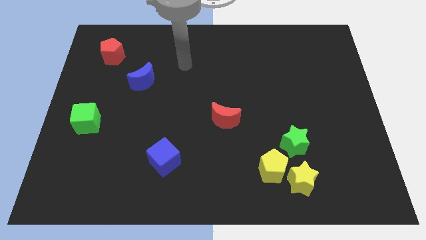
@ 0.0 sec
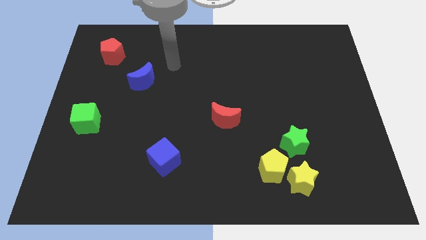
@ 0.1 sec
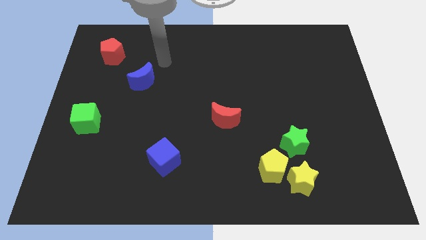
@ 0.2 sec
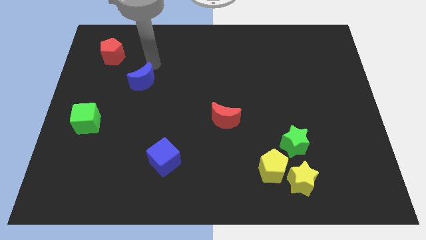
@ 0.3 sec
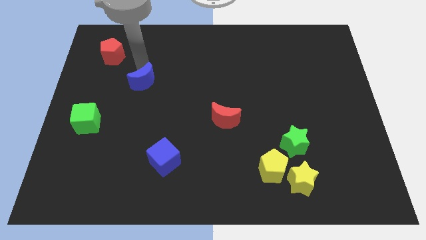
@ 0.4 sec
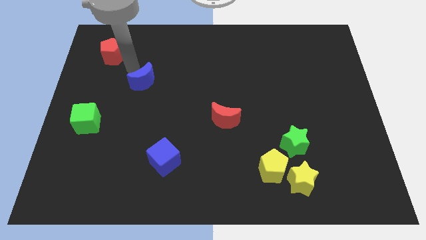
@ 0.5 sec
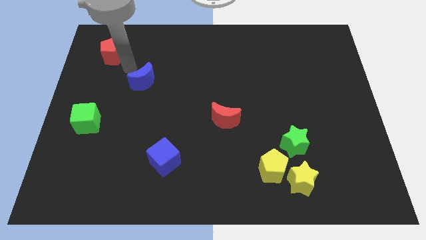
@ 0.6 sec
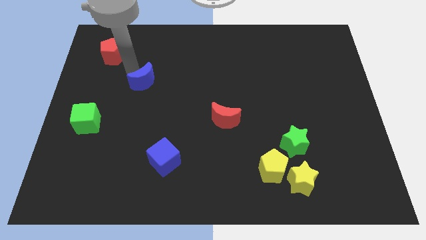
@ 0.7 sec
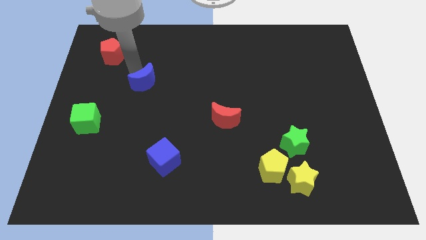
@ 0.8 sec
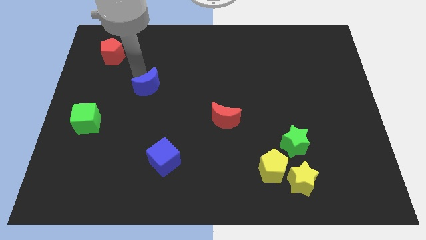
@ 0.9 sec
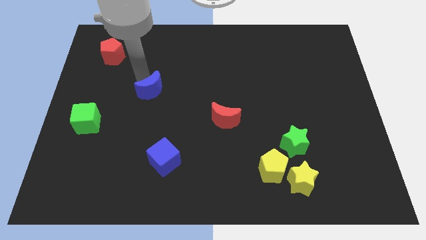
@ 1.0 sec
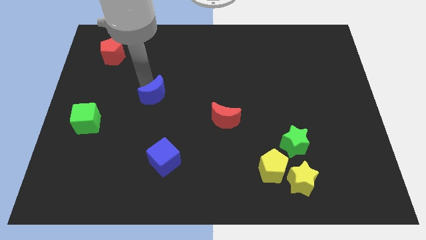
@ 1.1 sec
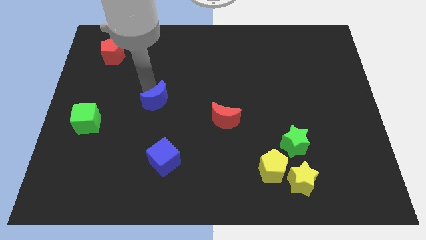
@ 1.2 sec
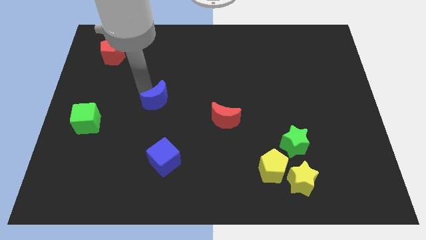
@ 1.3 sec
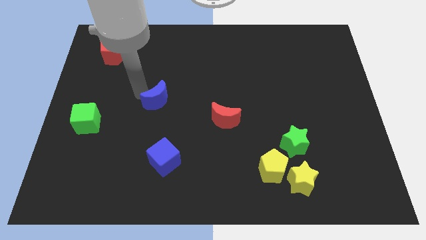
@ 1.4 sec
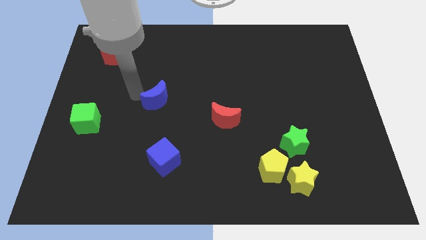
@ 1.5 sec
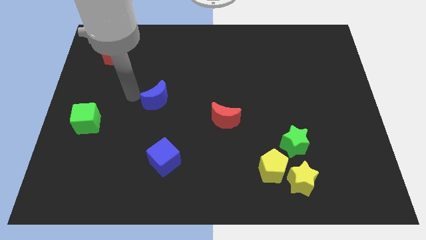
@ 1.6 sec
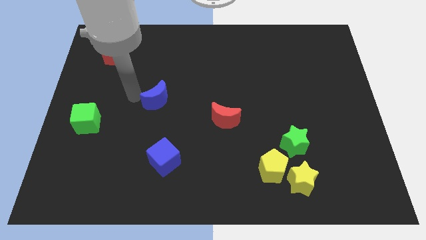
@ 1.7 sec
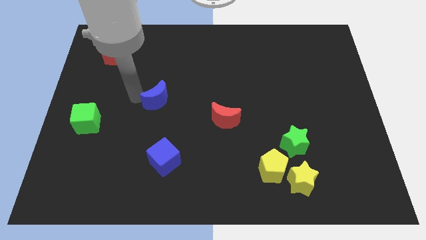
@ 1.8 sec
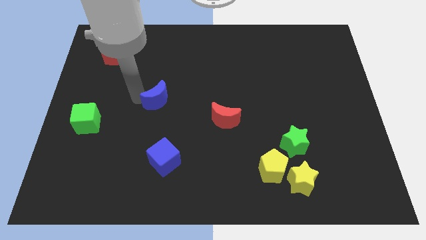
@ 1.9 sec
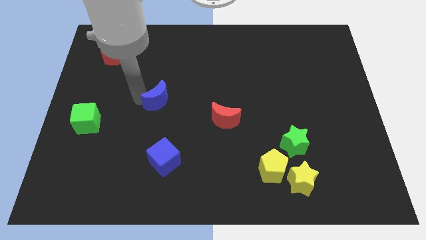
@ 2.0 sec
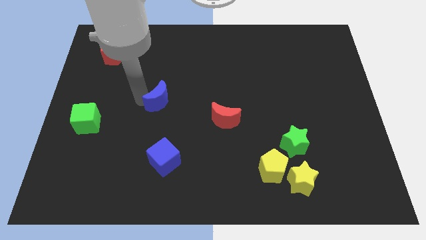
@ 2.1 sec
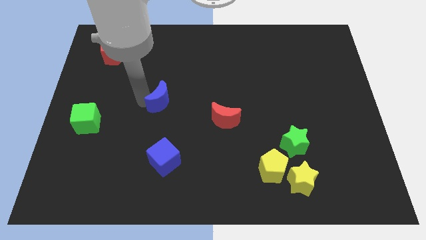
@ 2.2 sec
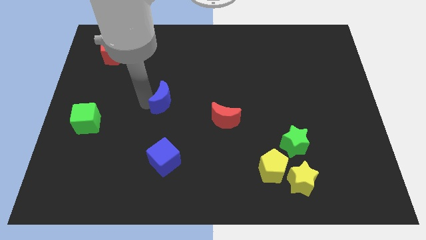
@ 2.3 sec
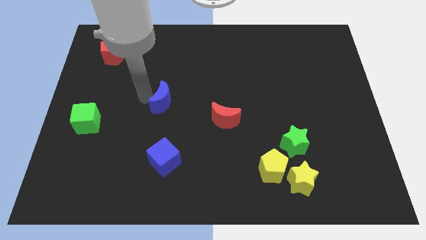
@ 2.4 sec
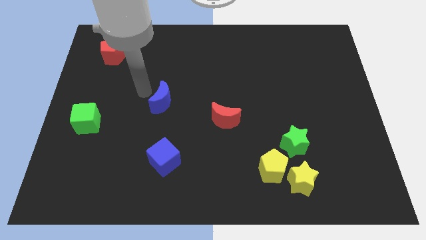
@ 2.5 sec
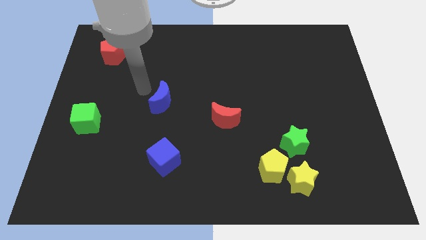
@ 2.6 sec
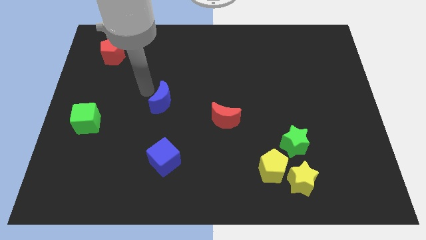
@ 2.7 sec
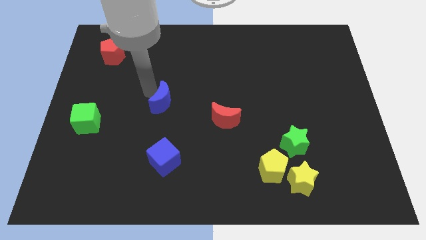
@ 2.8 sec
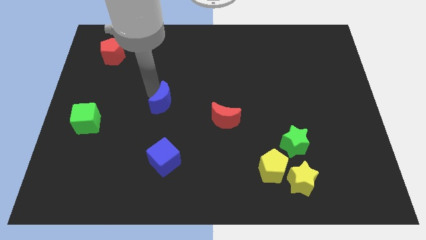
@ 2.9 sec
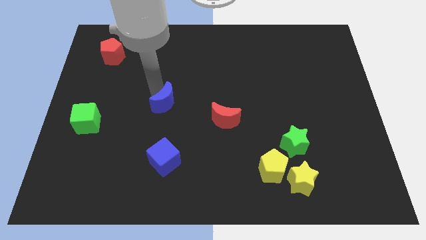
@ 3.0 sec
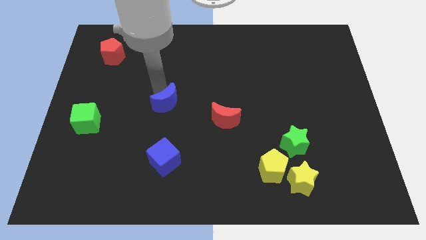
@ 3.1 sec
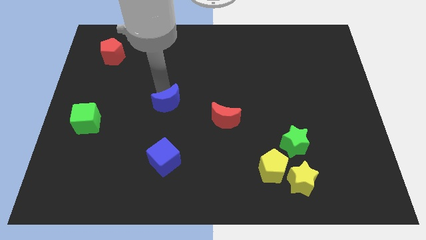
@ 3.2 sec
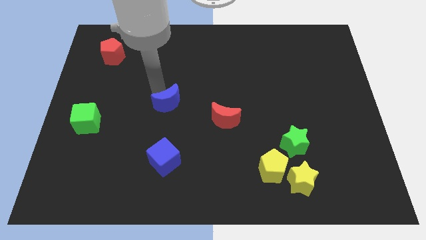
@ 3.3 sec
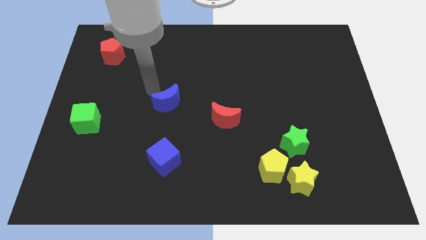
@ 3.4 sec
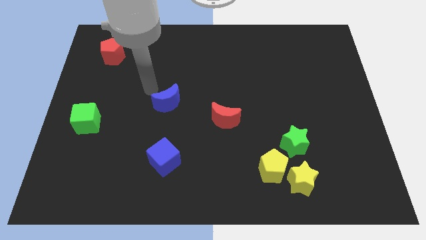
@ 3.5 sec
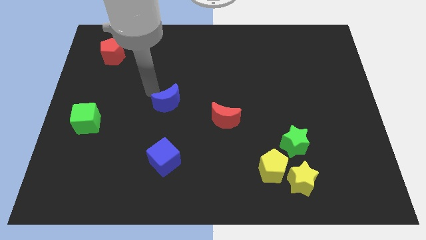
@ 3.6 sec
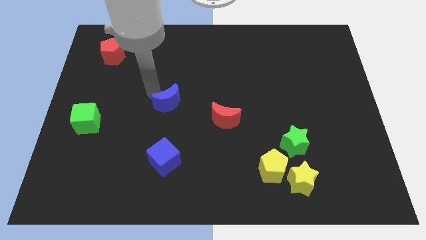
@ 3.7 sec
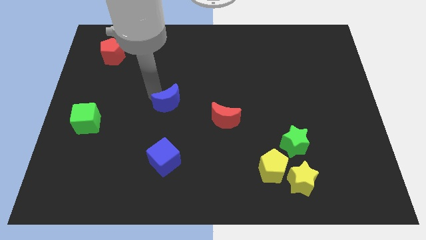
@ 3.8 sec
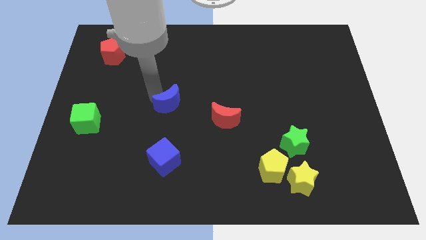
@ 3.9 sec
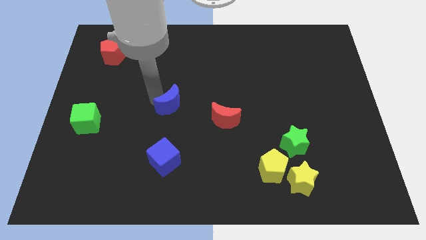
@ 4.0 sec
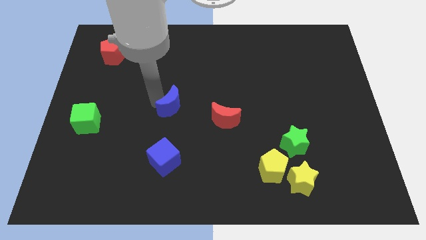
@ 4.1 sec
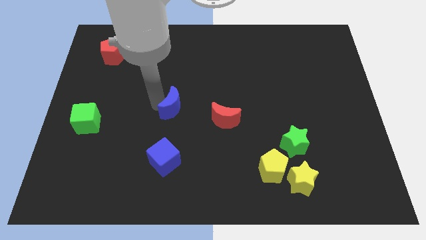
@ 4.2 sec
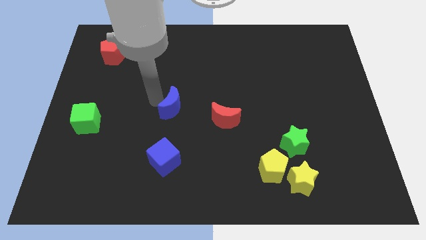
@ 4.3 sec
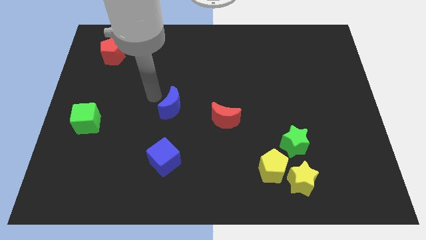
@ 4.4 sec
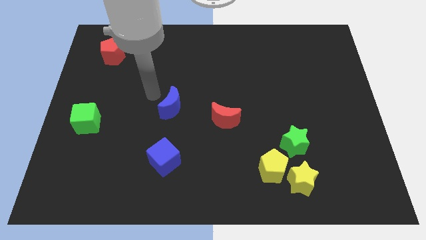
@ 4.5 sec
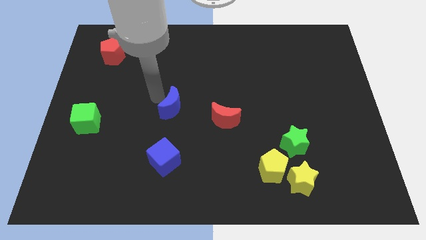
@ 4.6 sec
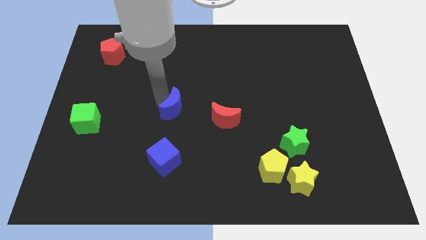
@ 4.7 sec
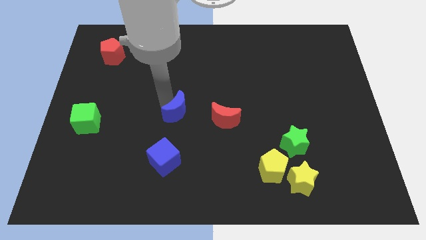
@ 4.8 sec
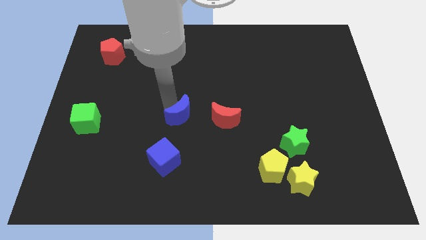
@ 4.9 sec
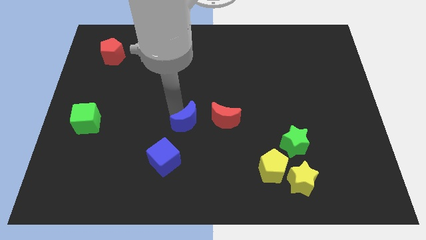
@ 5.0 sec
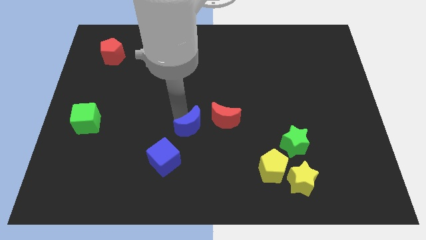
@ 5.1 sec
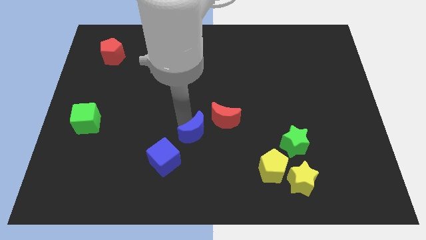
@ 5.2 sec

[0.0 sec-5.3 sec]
move the blue moon downwards and then to the right

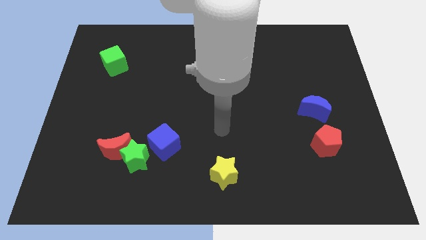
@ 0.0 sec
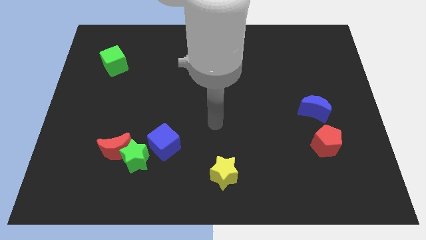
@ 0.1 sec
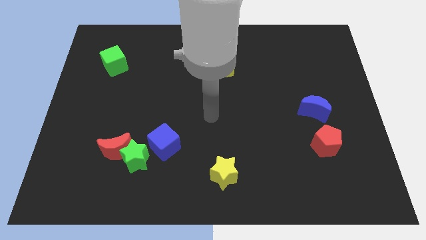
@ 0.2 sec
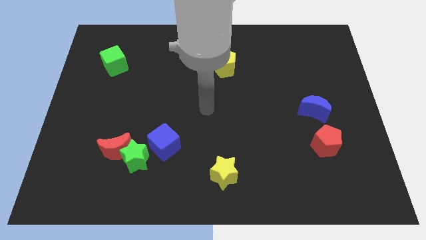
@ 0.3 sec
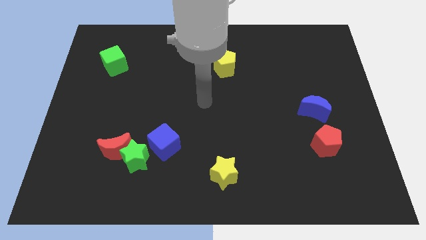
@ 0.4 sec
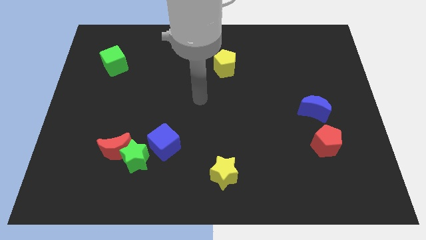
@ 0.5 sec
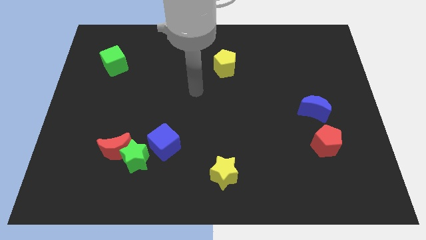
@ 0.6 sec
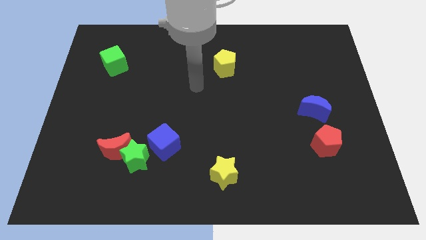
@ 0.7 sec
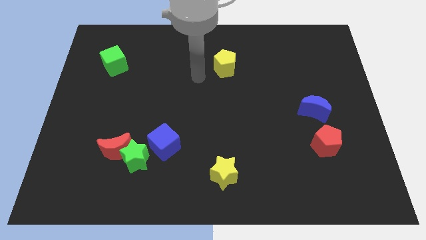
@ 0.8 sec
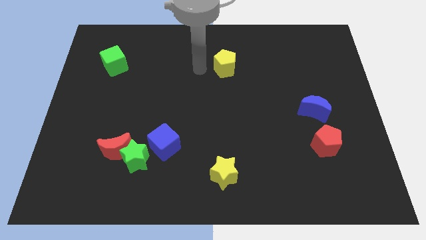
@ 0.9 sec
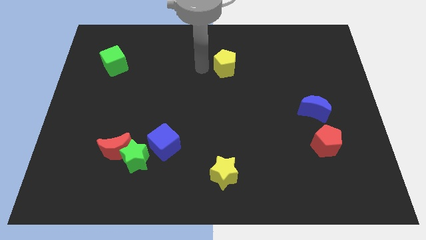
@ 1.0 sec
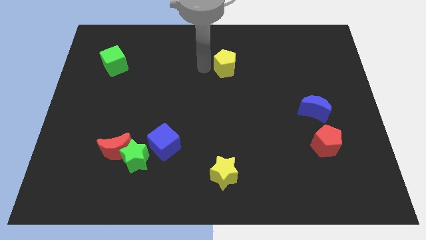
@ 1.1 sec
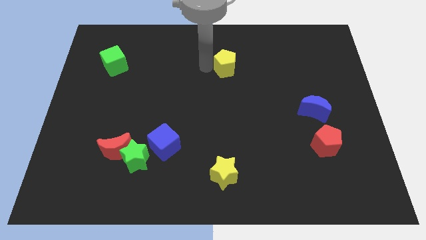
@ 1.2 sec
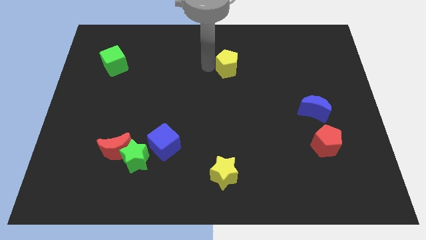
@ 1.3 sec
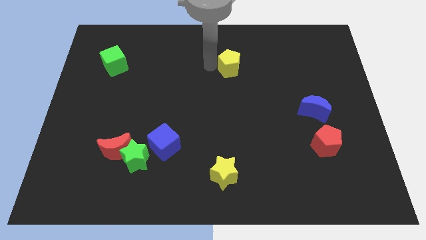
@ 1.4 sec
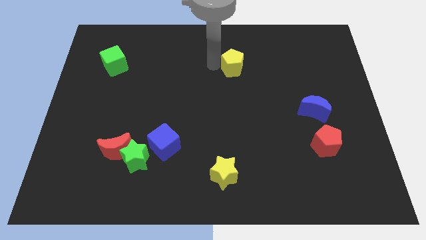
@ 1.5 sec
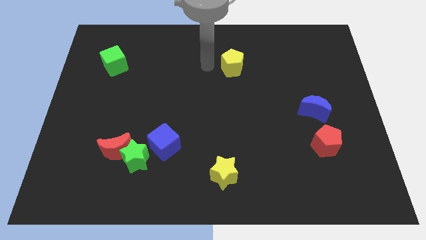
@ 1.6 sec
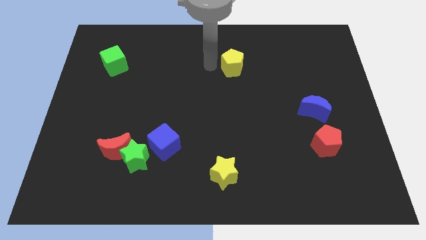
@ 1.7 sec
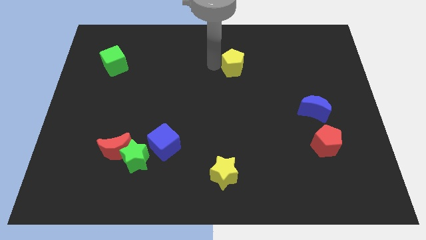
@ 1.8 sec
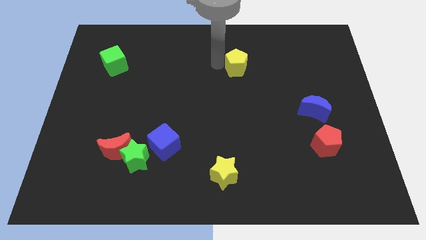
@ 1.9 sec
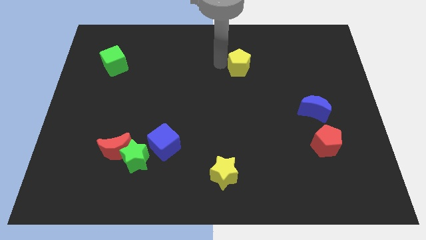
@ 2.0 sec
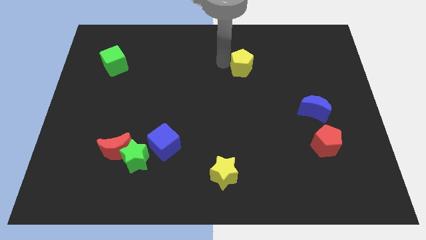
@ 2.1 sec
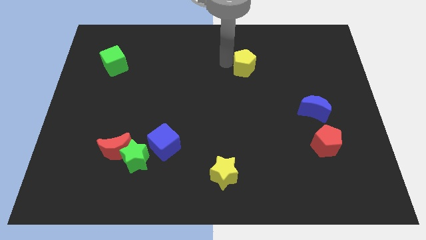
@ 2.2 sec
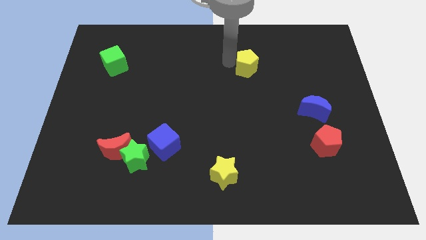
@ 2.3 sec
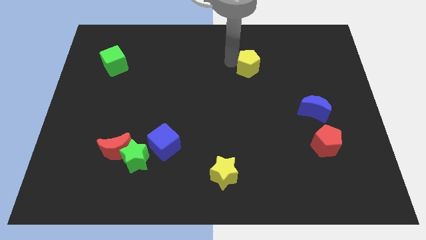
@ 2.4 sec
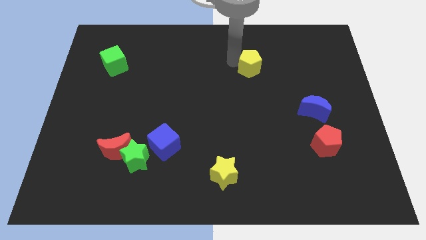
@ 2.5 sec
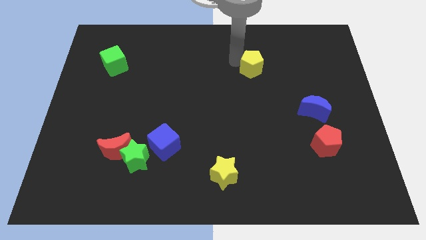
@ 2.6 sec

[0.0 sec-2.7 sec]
push the yellow pentagon a little right

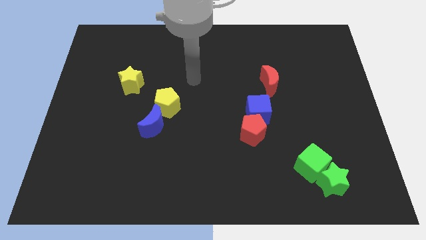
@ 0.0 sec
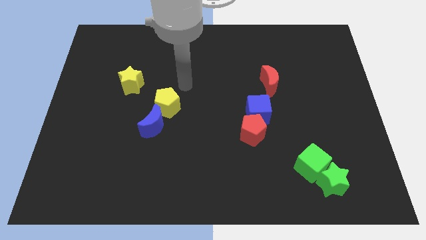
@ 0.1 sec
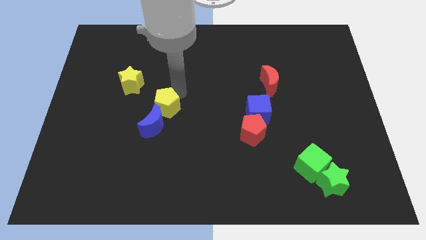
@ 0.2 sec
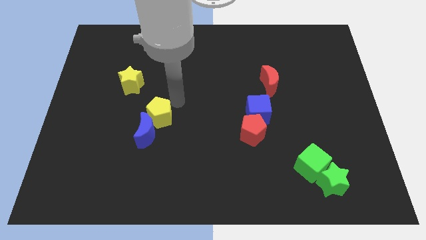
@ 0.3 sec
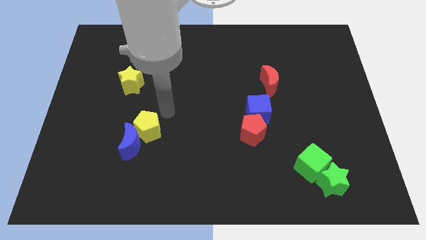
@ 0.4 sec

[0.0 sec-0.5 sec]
push the blue moon a little downwards and then to the left
